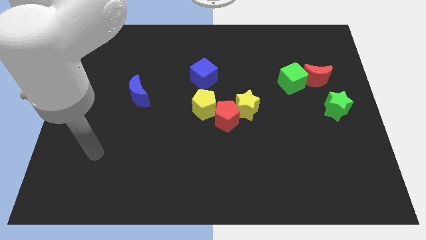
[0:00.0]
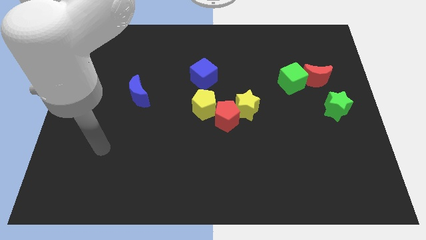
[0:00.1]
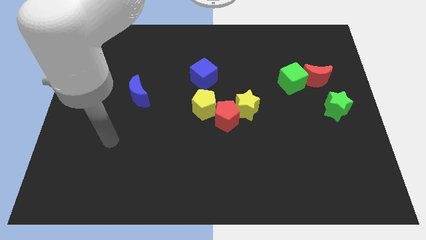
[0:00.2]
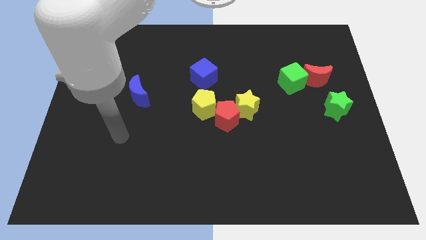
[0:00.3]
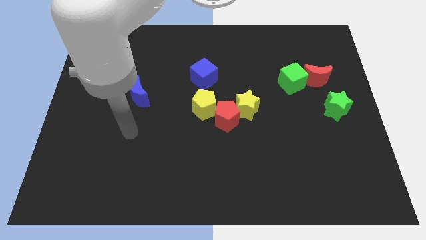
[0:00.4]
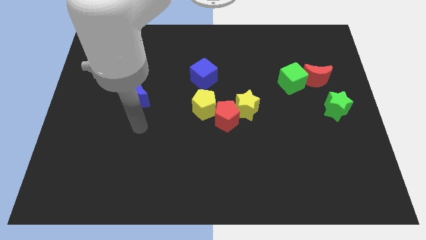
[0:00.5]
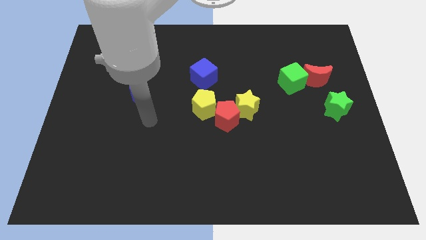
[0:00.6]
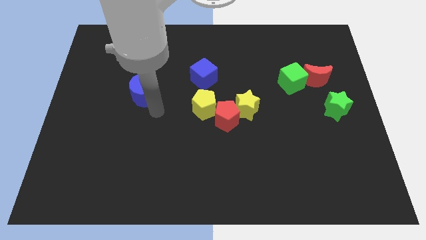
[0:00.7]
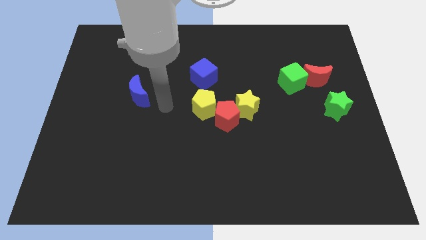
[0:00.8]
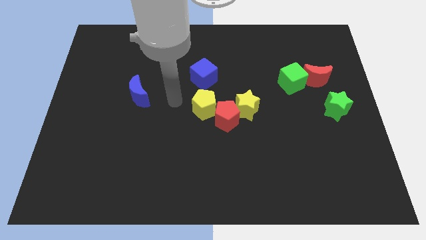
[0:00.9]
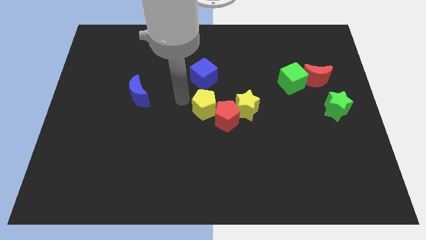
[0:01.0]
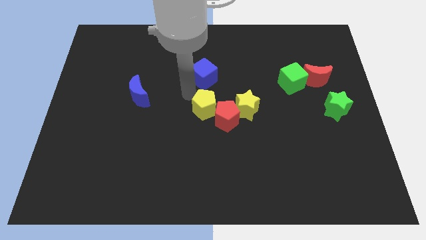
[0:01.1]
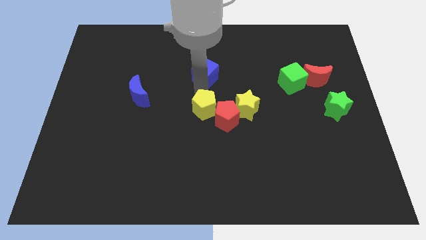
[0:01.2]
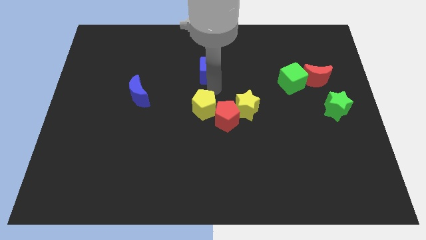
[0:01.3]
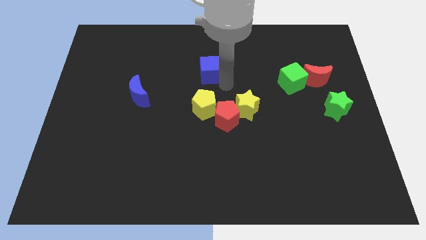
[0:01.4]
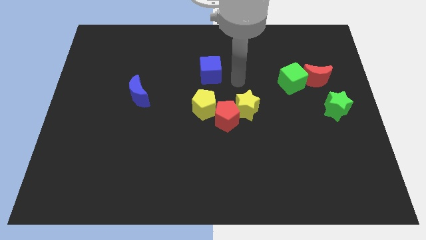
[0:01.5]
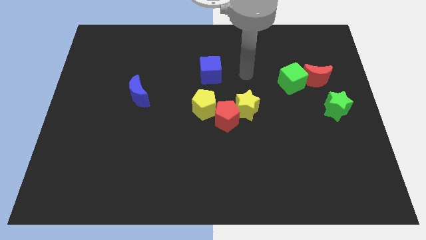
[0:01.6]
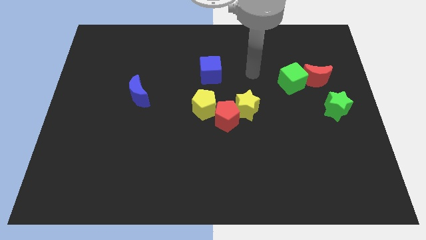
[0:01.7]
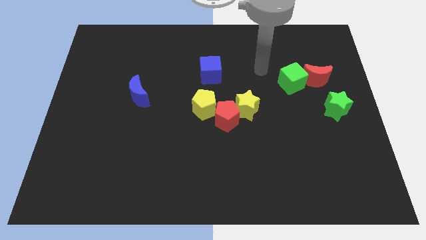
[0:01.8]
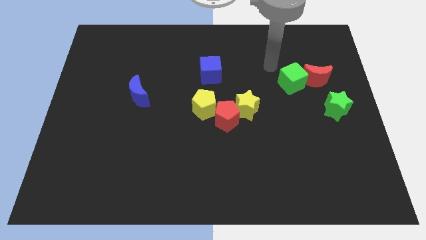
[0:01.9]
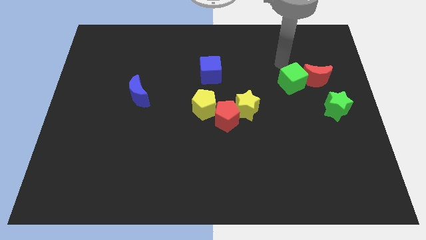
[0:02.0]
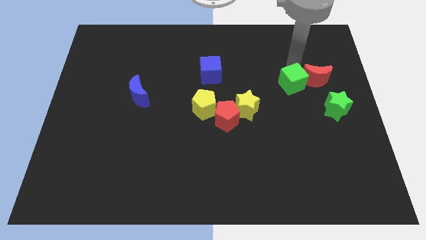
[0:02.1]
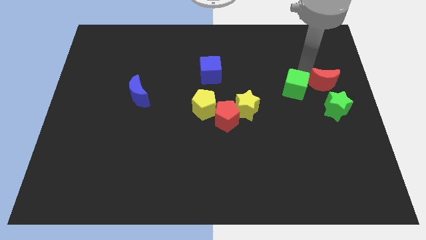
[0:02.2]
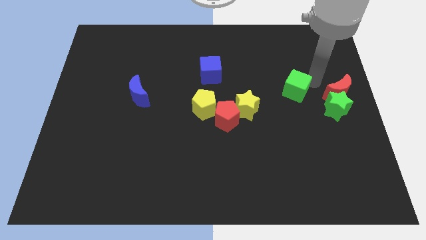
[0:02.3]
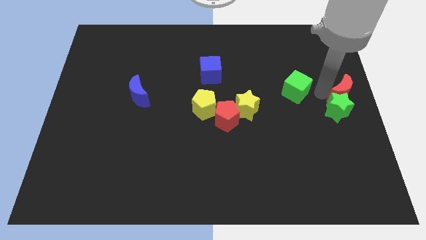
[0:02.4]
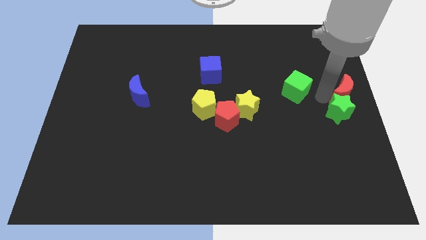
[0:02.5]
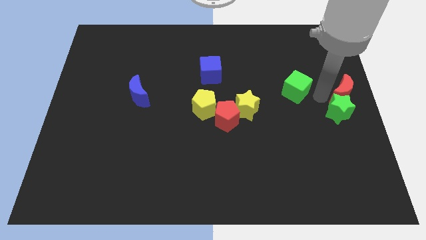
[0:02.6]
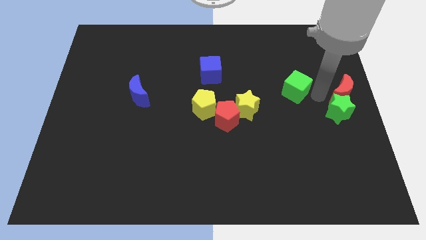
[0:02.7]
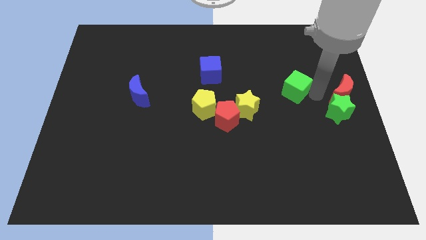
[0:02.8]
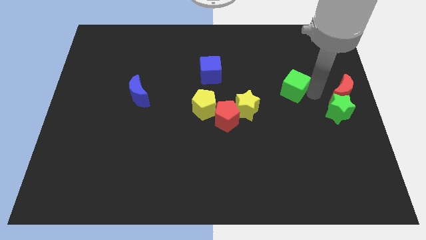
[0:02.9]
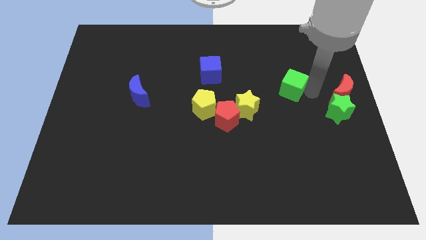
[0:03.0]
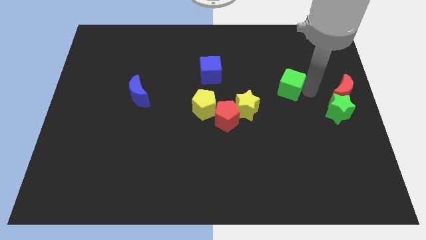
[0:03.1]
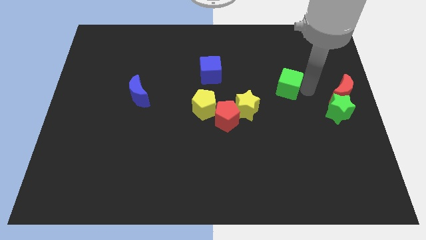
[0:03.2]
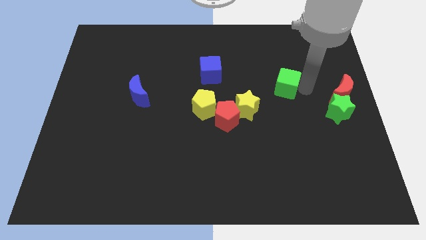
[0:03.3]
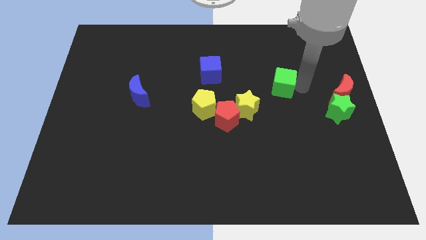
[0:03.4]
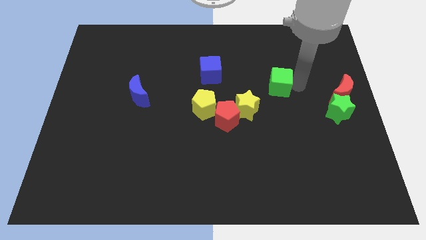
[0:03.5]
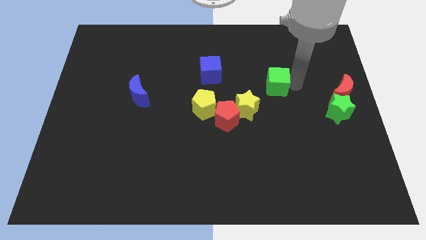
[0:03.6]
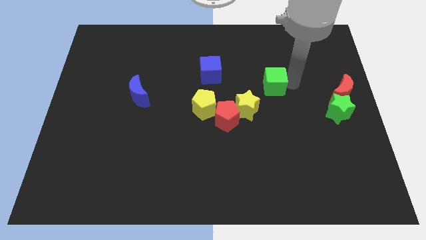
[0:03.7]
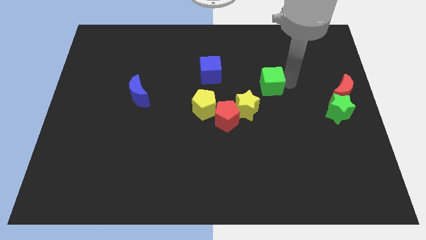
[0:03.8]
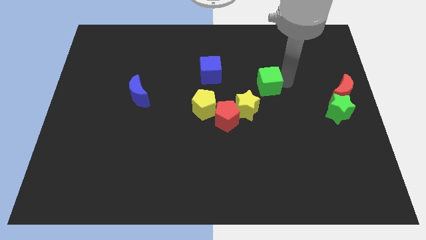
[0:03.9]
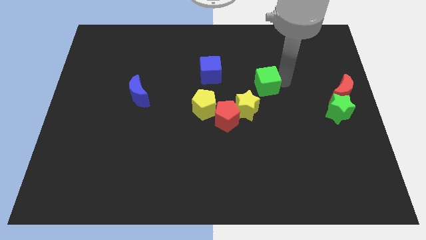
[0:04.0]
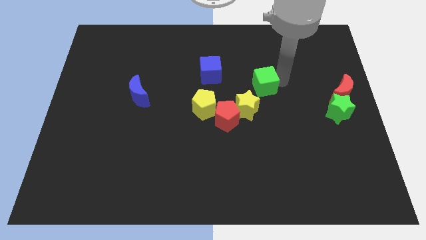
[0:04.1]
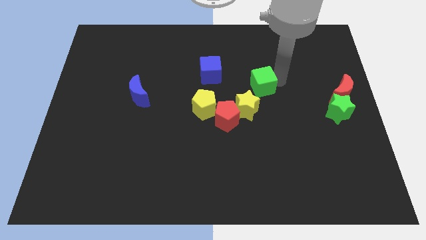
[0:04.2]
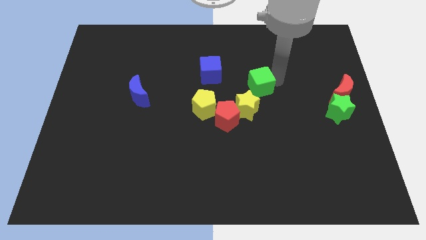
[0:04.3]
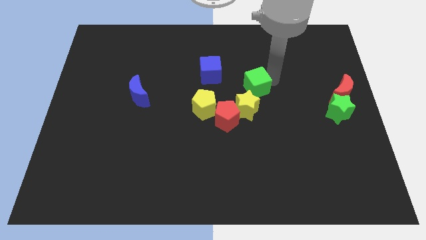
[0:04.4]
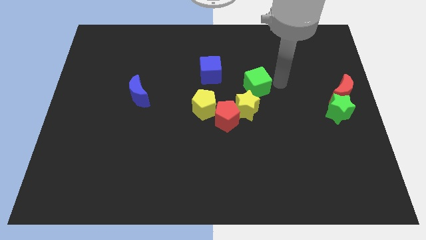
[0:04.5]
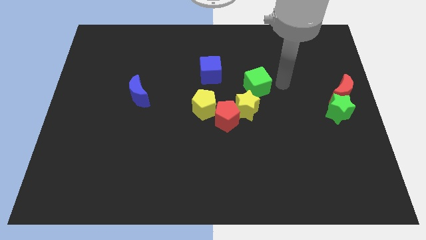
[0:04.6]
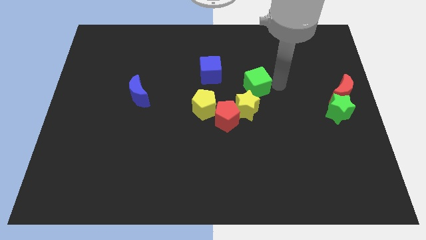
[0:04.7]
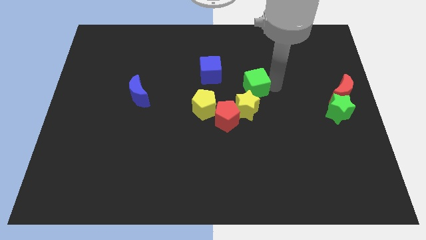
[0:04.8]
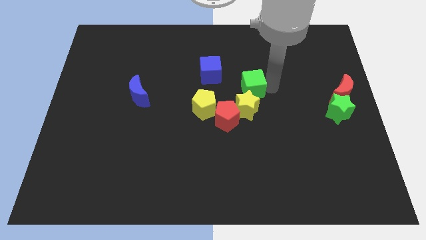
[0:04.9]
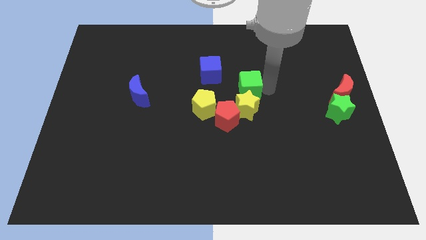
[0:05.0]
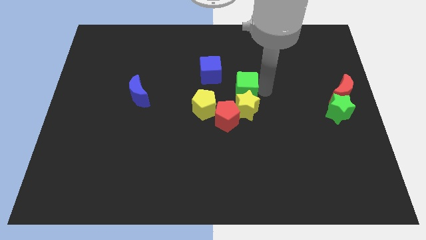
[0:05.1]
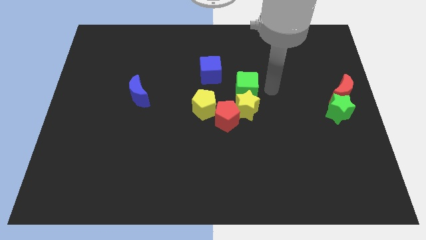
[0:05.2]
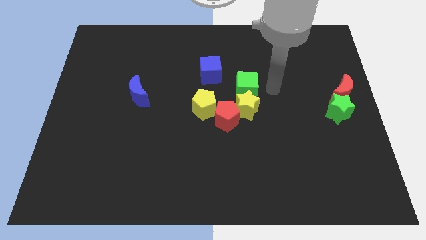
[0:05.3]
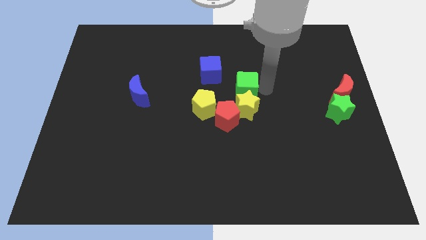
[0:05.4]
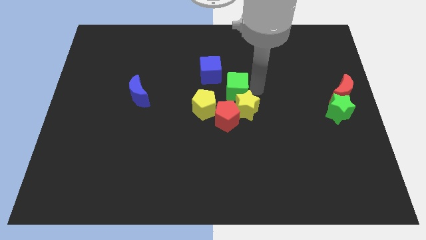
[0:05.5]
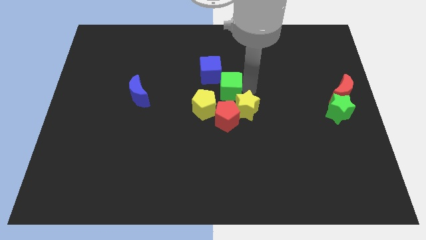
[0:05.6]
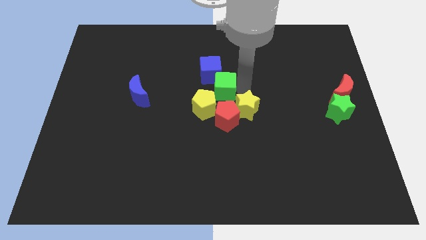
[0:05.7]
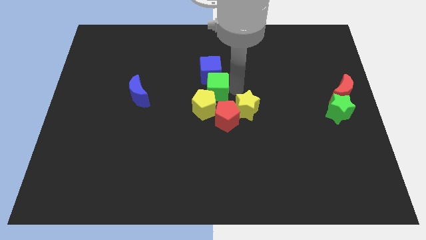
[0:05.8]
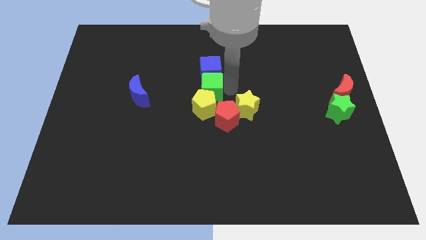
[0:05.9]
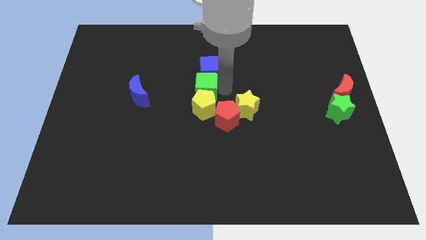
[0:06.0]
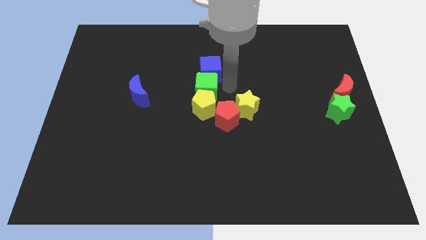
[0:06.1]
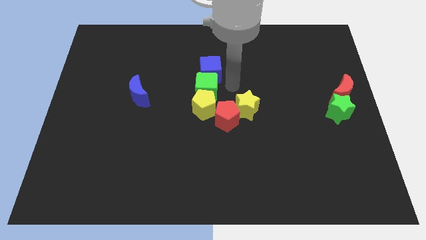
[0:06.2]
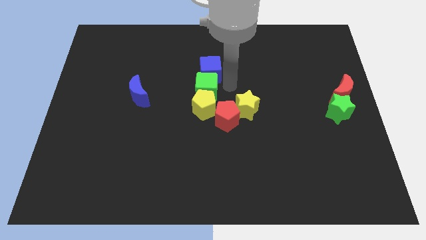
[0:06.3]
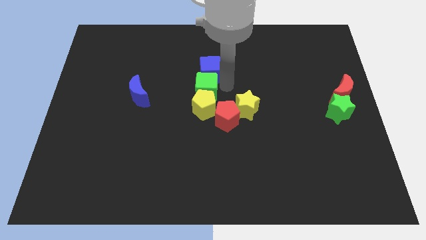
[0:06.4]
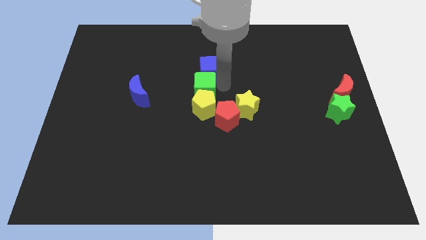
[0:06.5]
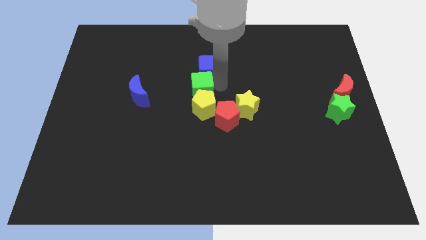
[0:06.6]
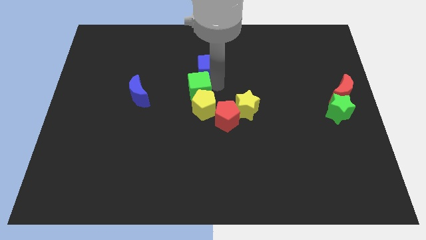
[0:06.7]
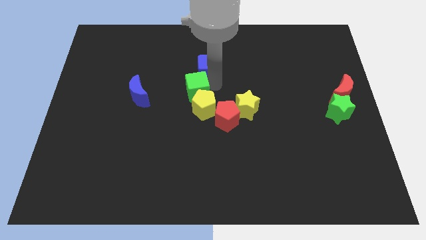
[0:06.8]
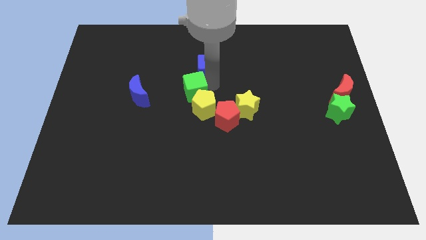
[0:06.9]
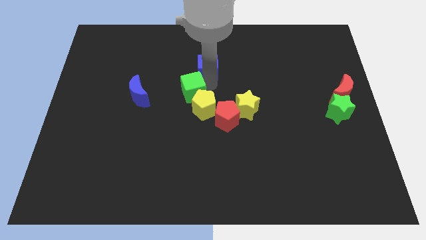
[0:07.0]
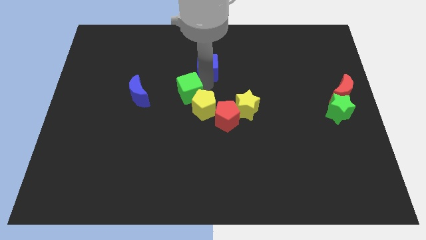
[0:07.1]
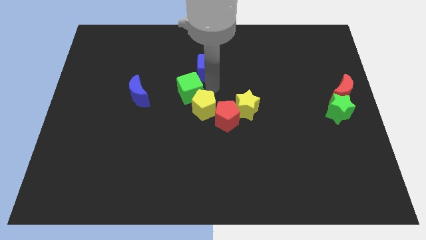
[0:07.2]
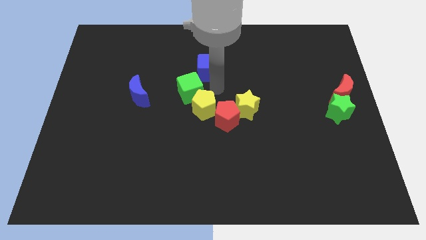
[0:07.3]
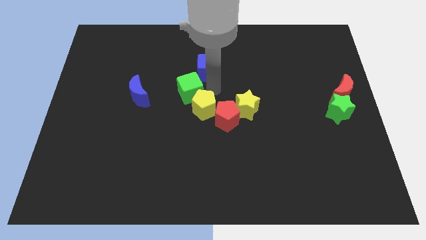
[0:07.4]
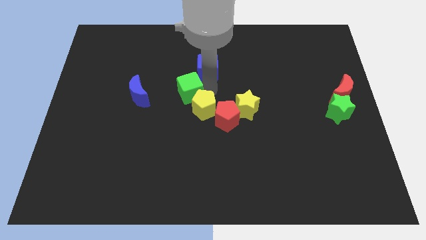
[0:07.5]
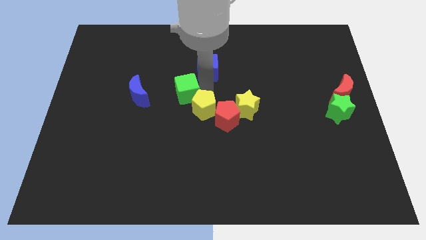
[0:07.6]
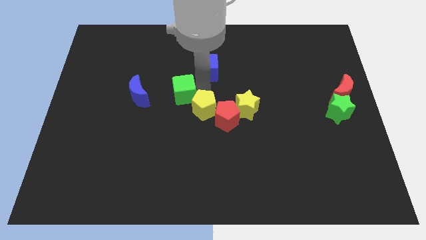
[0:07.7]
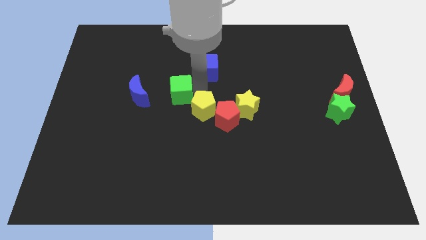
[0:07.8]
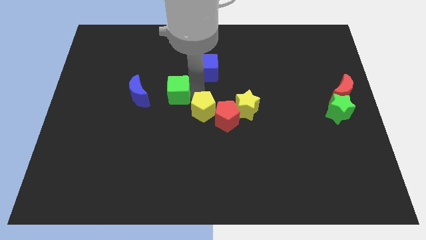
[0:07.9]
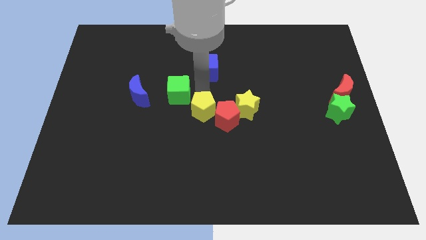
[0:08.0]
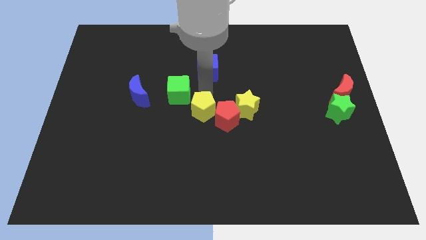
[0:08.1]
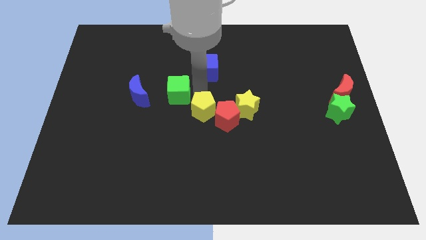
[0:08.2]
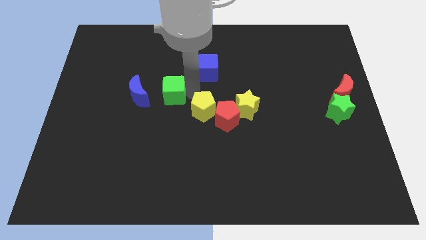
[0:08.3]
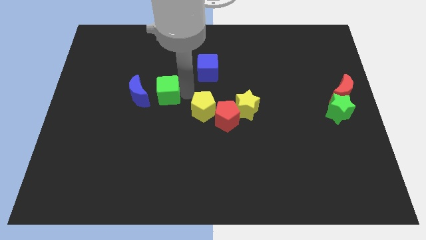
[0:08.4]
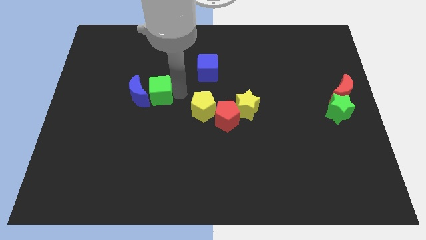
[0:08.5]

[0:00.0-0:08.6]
slide the green cube towards the blue moon
